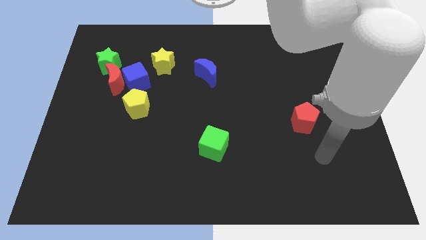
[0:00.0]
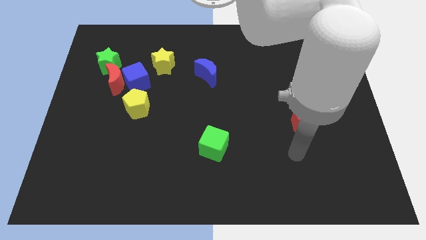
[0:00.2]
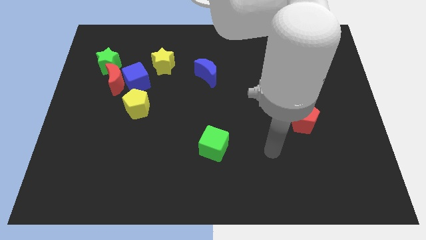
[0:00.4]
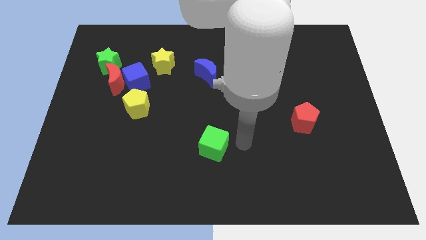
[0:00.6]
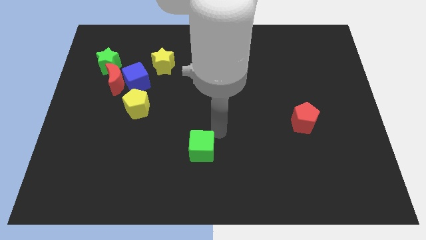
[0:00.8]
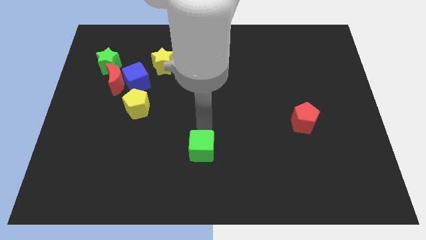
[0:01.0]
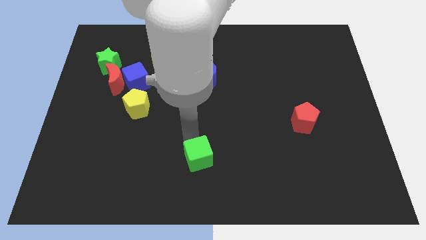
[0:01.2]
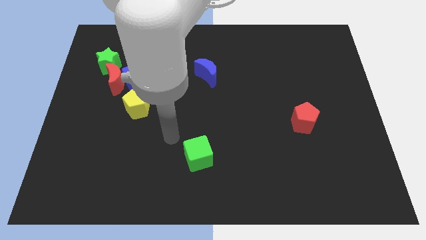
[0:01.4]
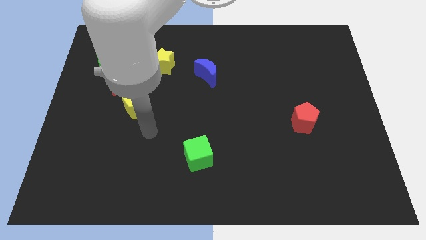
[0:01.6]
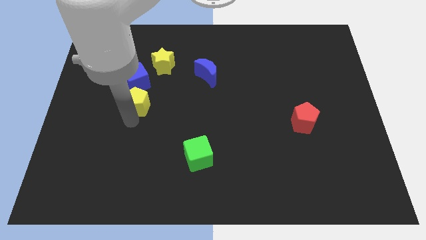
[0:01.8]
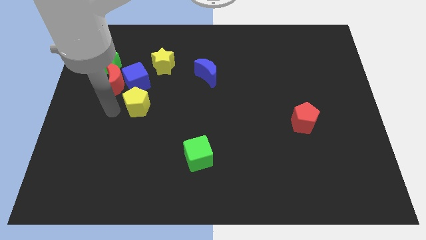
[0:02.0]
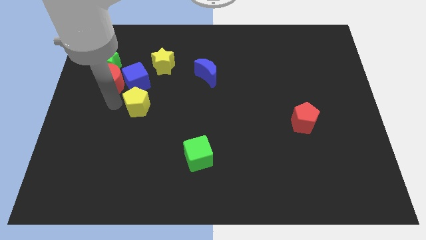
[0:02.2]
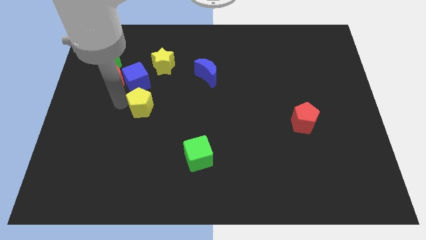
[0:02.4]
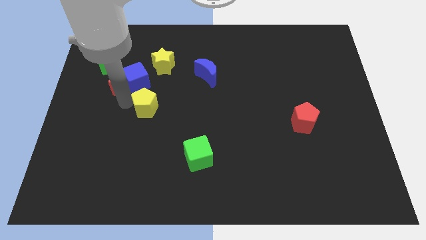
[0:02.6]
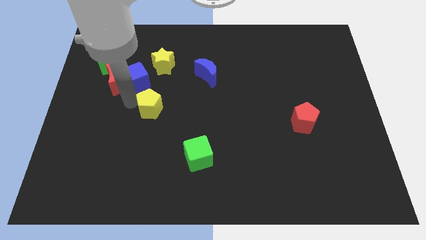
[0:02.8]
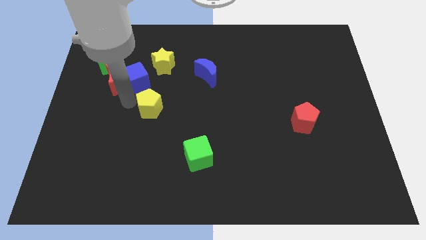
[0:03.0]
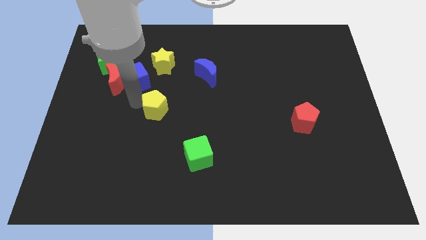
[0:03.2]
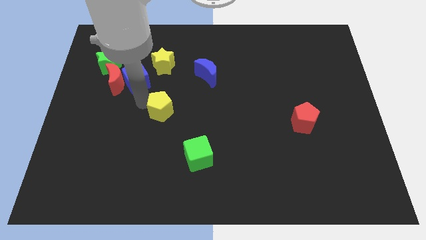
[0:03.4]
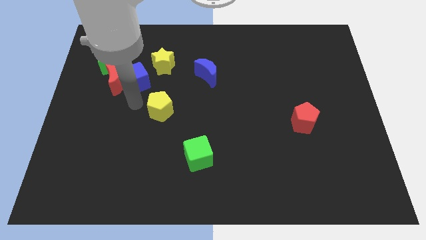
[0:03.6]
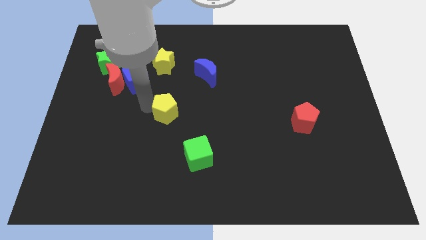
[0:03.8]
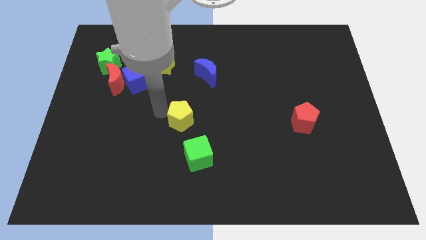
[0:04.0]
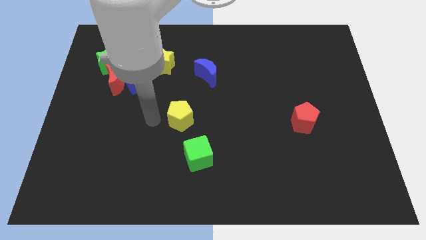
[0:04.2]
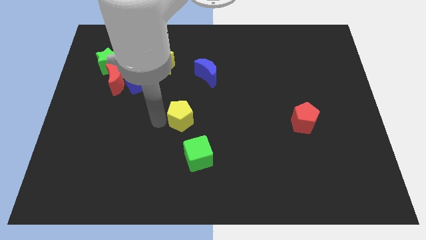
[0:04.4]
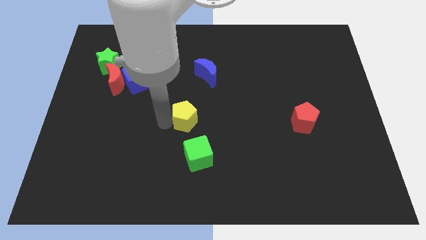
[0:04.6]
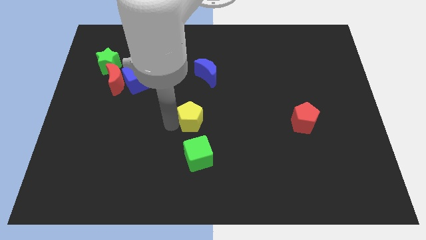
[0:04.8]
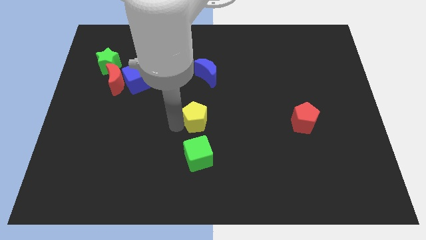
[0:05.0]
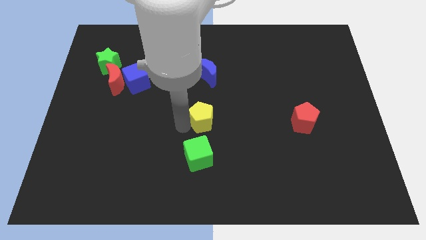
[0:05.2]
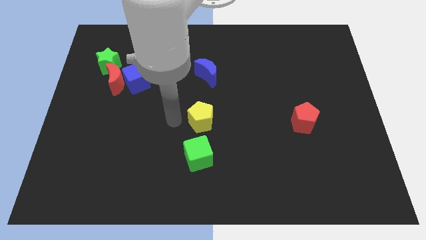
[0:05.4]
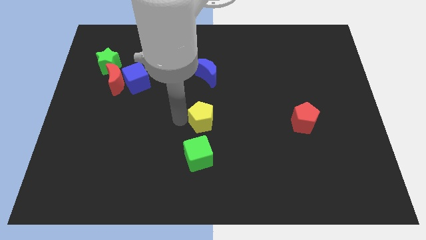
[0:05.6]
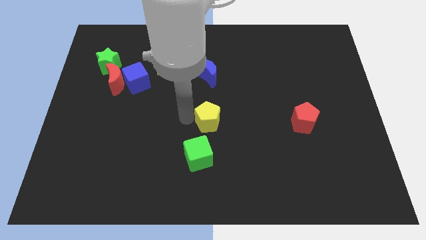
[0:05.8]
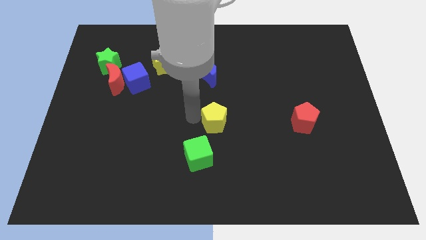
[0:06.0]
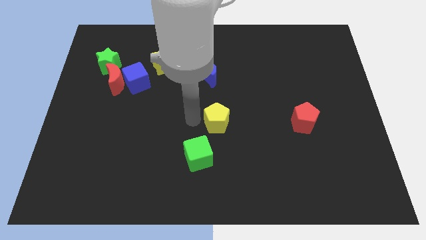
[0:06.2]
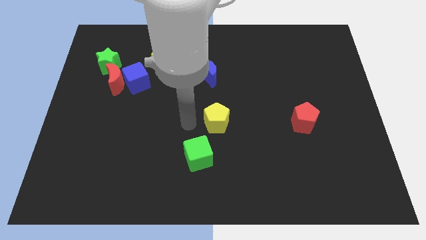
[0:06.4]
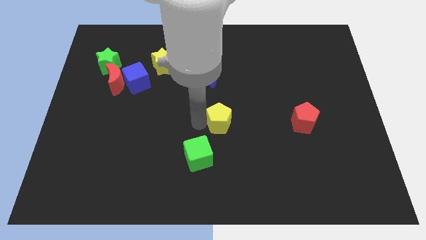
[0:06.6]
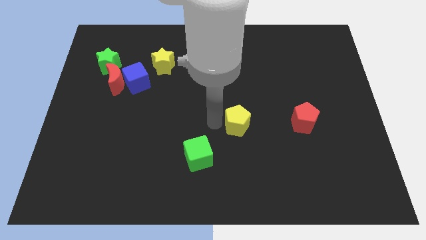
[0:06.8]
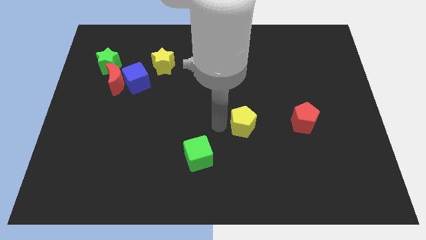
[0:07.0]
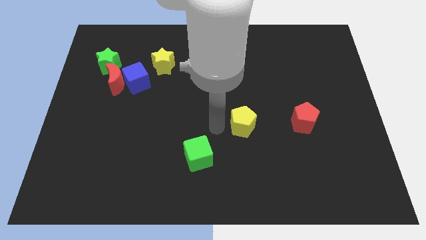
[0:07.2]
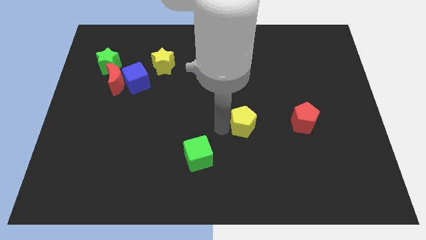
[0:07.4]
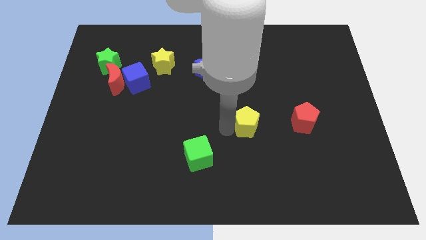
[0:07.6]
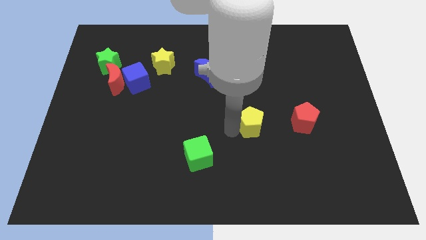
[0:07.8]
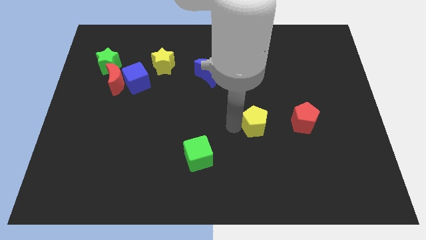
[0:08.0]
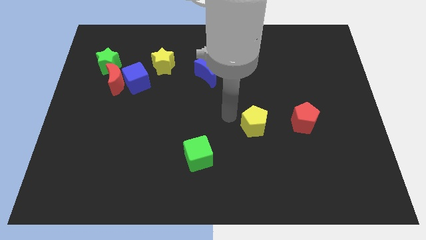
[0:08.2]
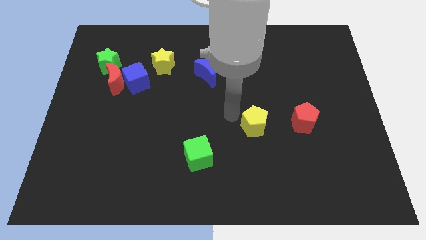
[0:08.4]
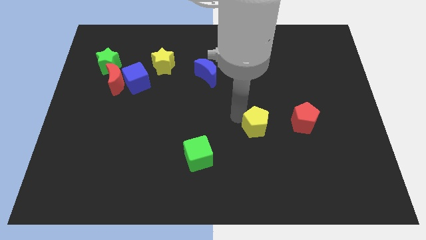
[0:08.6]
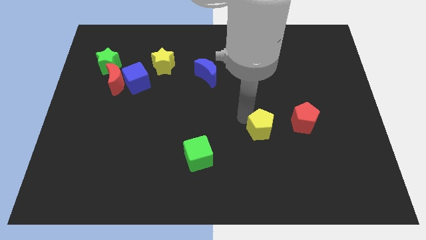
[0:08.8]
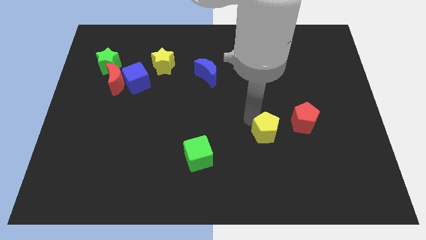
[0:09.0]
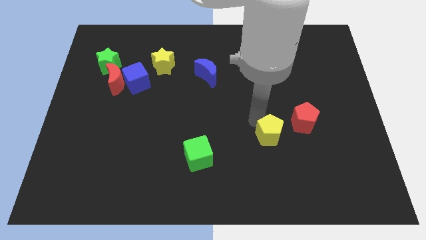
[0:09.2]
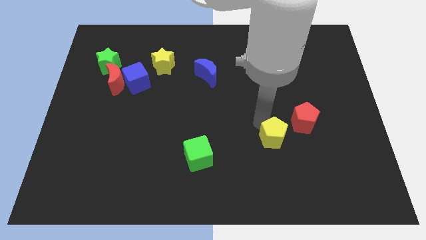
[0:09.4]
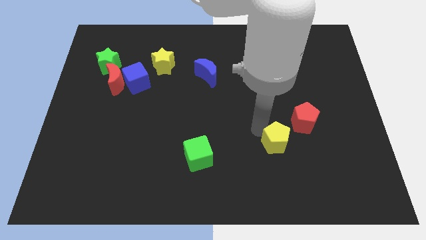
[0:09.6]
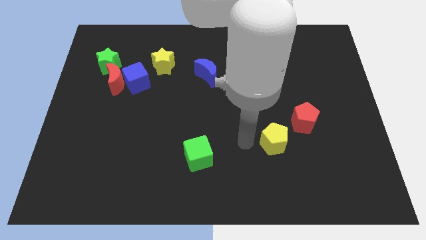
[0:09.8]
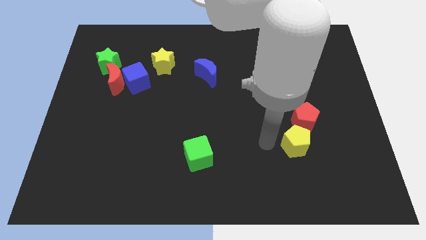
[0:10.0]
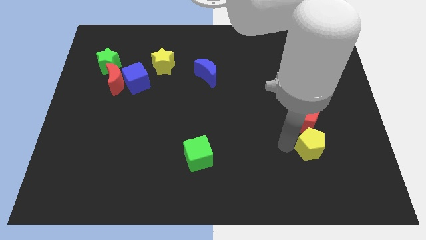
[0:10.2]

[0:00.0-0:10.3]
push the yellow pentagon diagonally down and to the right of the red pentagon

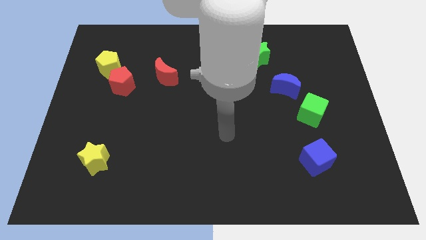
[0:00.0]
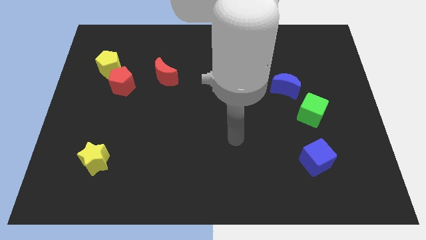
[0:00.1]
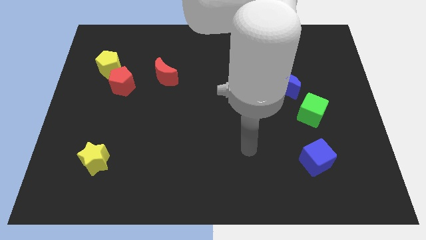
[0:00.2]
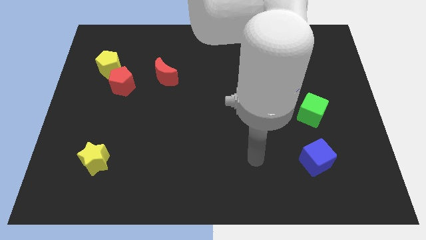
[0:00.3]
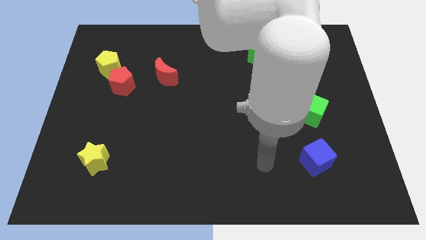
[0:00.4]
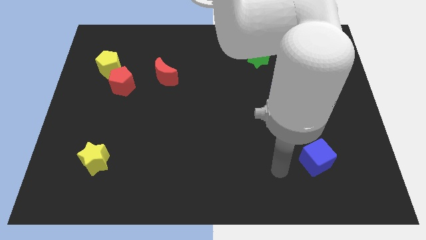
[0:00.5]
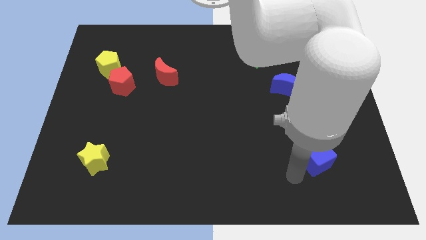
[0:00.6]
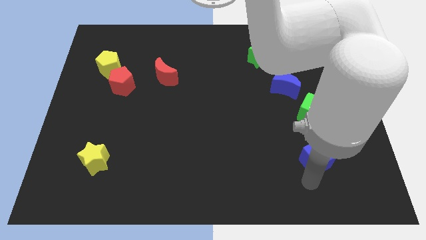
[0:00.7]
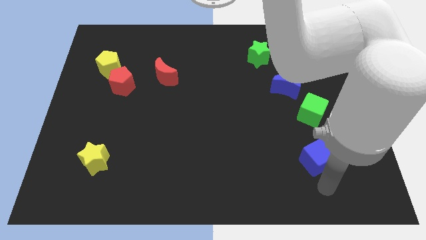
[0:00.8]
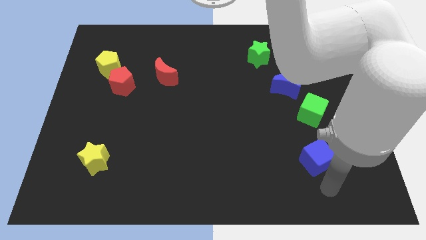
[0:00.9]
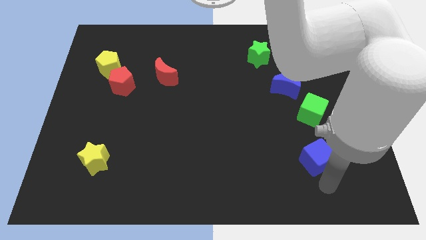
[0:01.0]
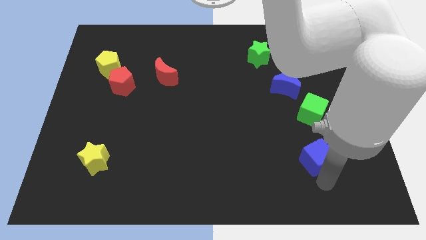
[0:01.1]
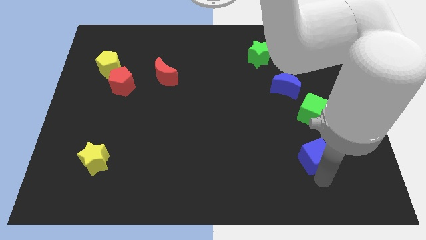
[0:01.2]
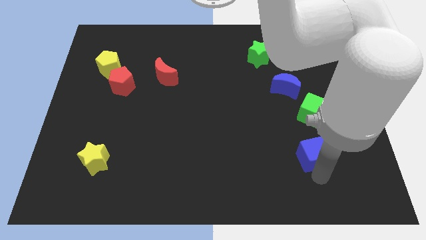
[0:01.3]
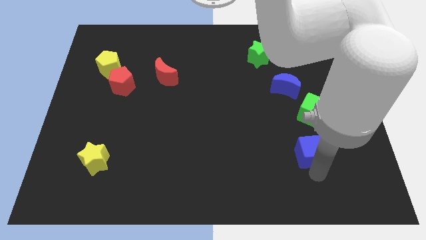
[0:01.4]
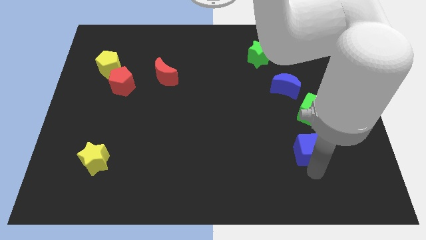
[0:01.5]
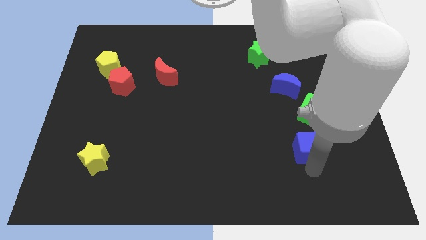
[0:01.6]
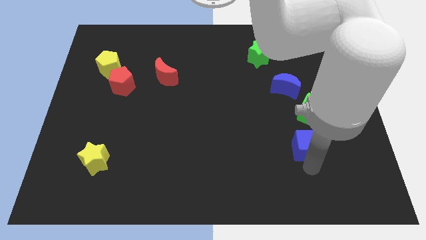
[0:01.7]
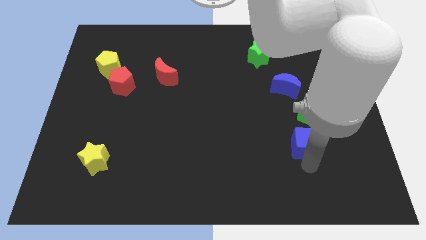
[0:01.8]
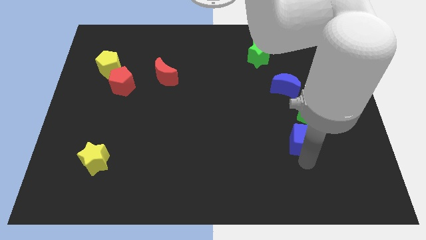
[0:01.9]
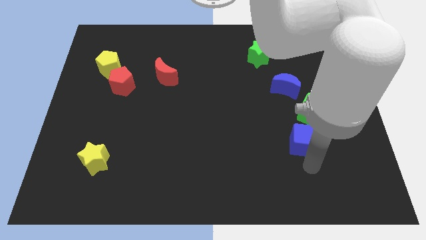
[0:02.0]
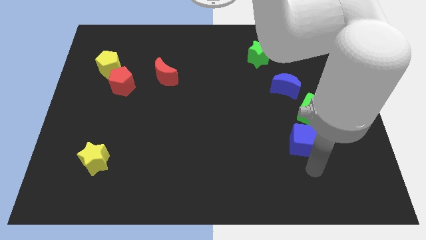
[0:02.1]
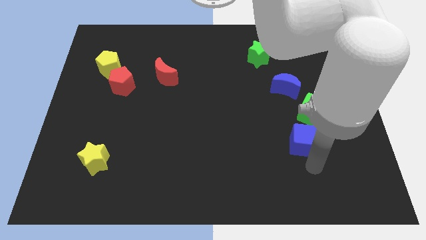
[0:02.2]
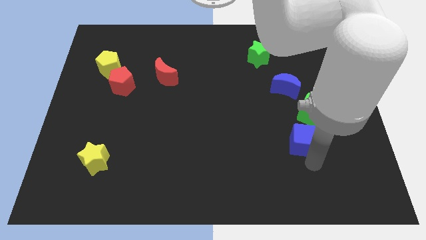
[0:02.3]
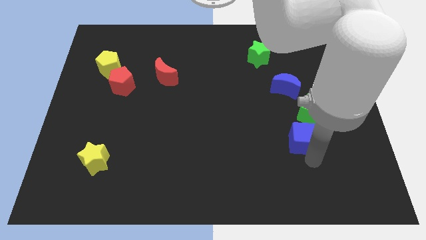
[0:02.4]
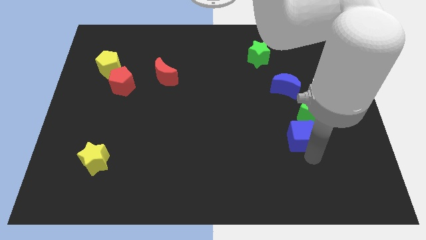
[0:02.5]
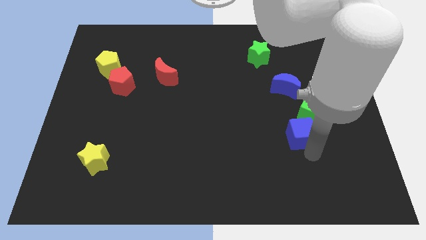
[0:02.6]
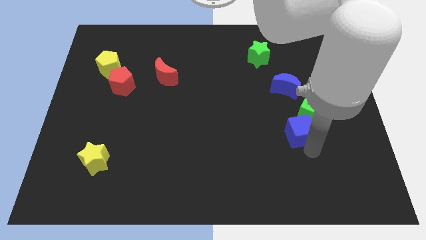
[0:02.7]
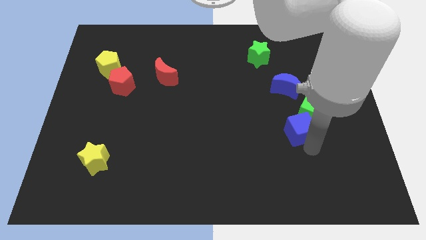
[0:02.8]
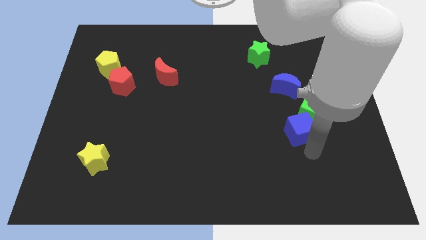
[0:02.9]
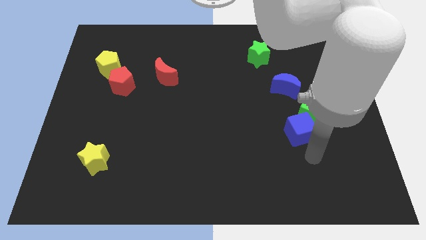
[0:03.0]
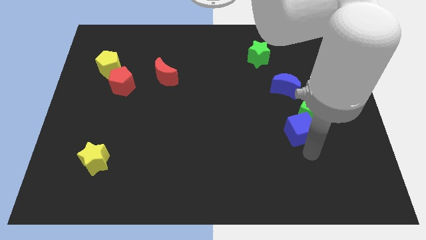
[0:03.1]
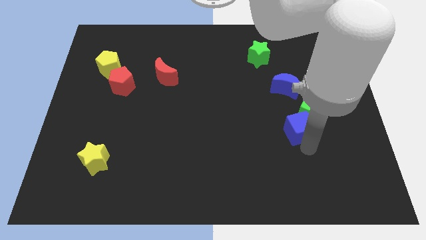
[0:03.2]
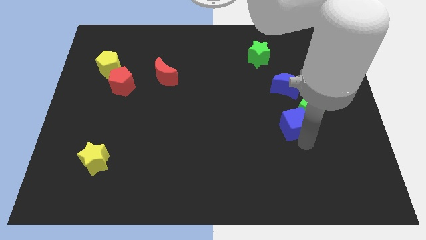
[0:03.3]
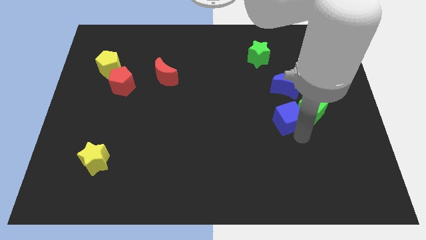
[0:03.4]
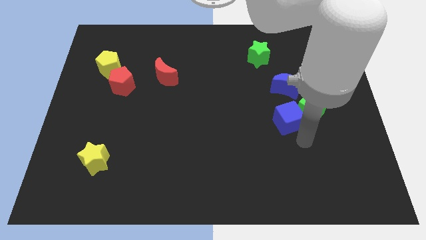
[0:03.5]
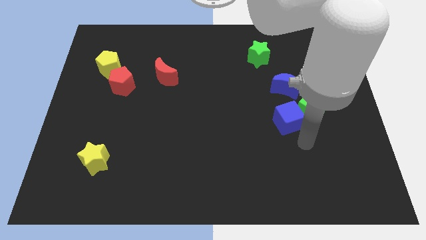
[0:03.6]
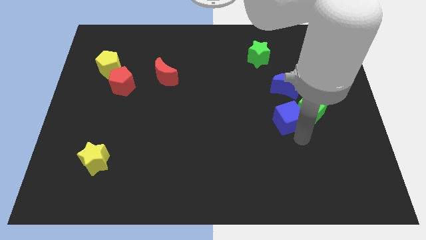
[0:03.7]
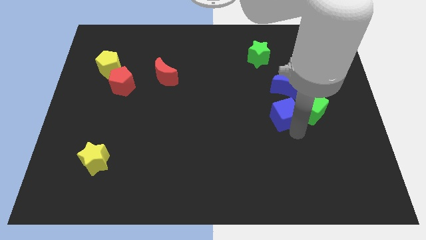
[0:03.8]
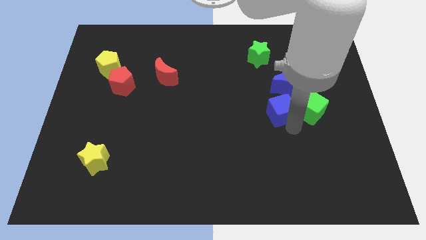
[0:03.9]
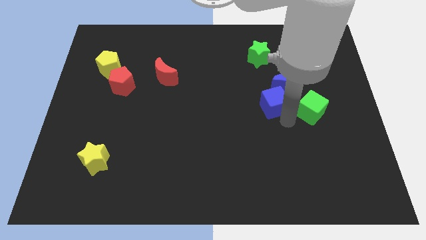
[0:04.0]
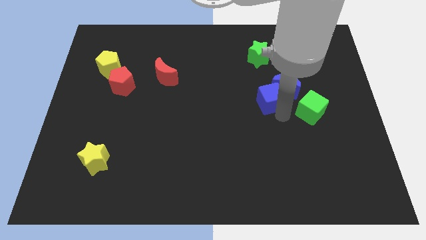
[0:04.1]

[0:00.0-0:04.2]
put the blue cube below the green star
